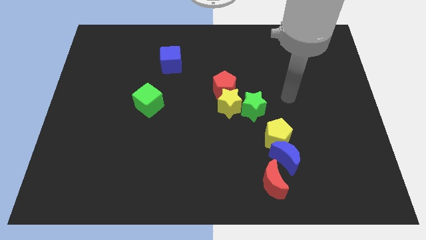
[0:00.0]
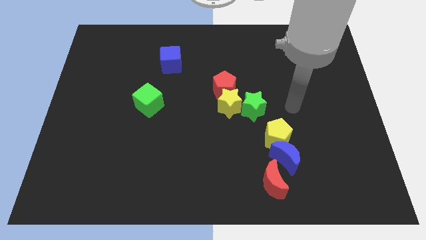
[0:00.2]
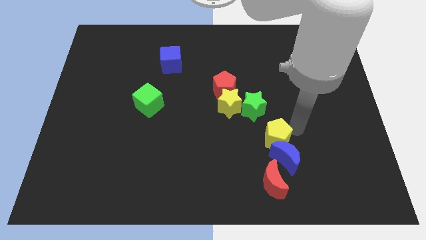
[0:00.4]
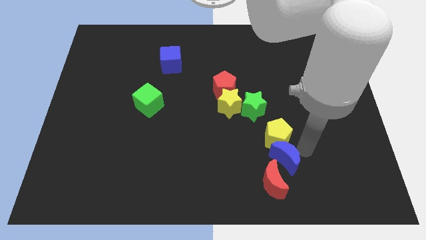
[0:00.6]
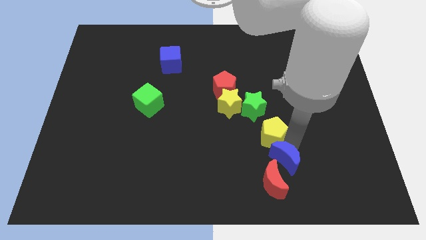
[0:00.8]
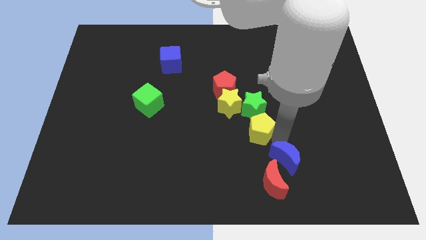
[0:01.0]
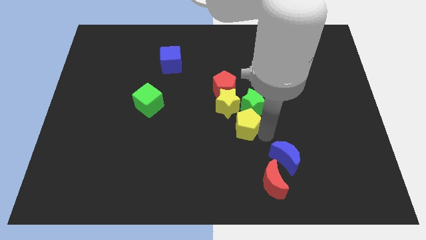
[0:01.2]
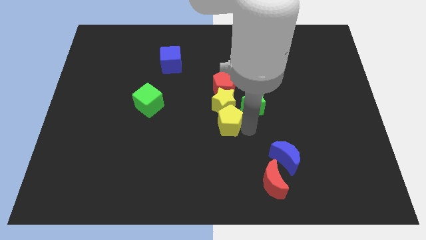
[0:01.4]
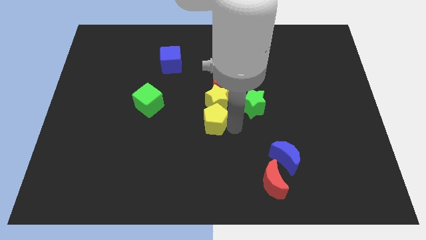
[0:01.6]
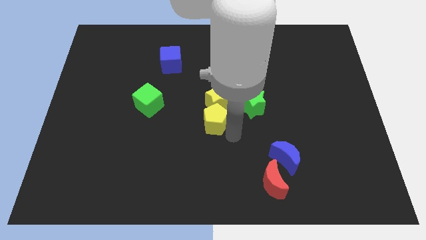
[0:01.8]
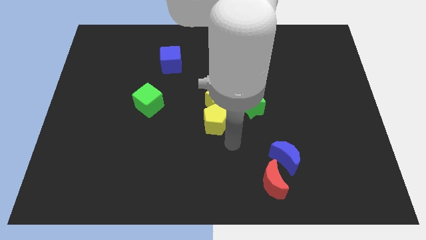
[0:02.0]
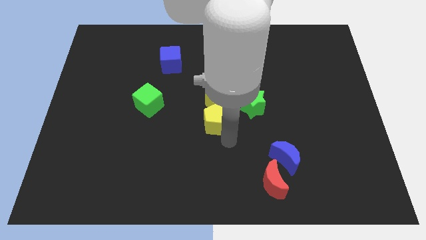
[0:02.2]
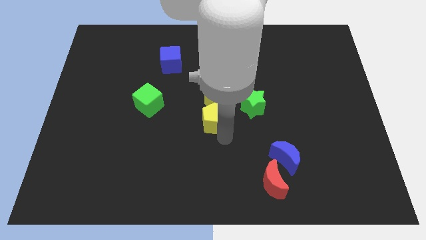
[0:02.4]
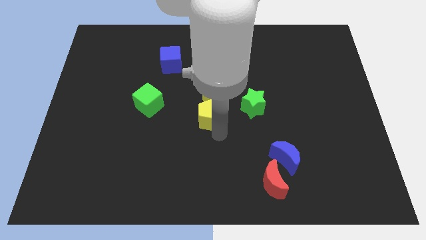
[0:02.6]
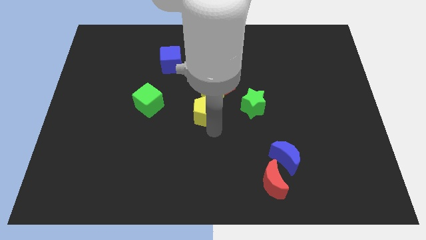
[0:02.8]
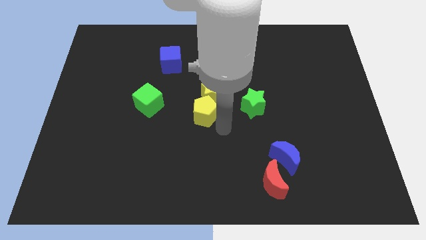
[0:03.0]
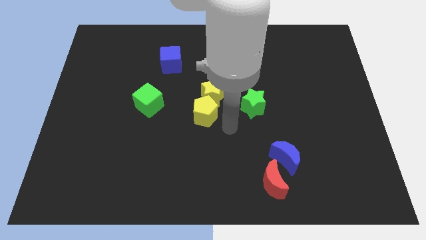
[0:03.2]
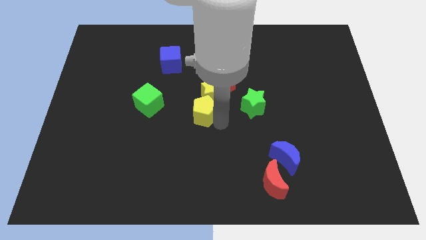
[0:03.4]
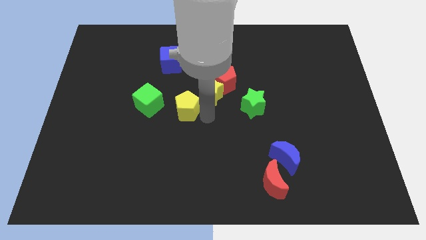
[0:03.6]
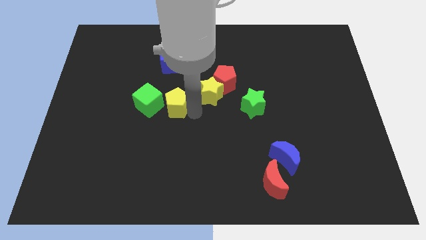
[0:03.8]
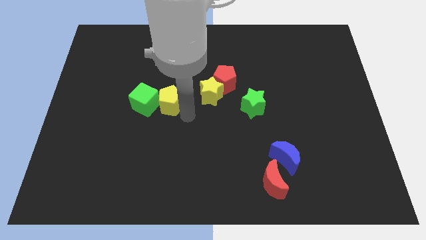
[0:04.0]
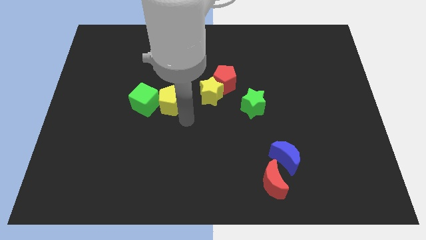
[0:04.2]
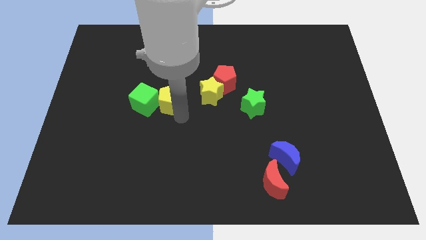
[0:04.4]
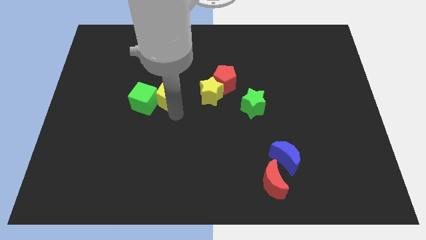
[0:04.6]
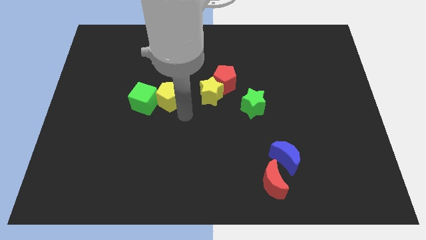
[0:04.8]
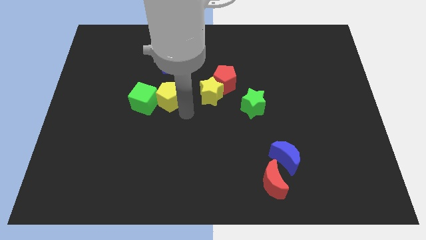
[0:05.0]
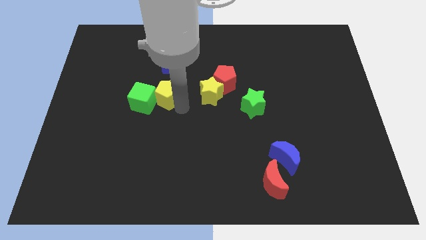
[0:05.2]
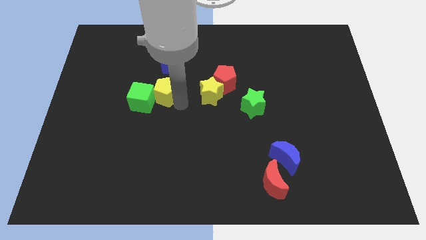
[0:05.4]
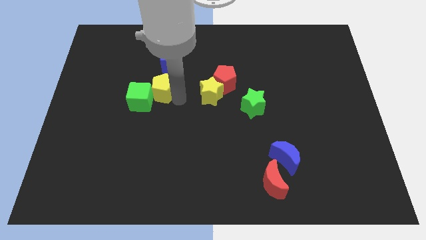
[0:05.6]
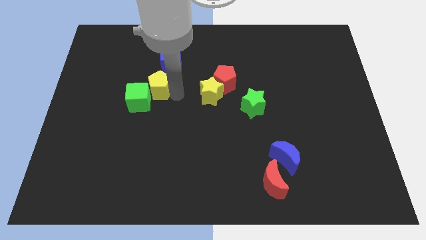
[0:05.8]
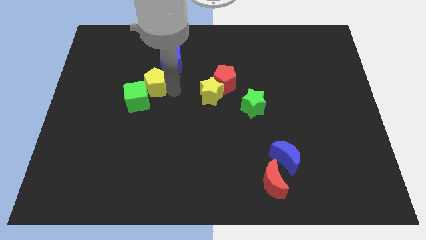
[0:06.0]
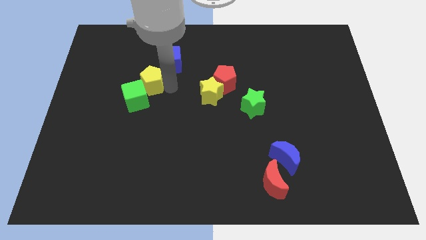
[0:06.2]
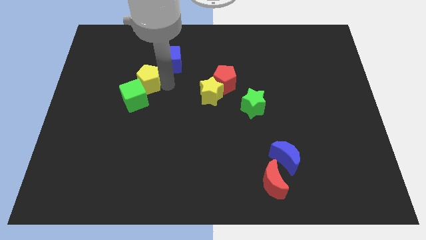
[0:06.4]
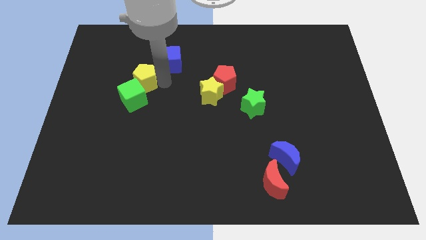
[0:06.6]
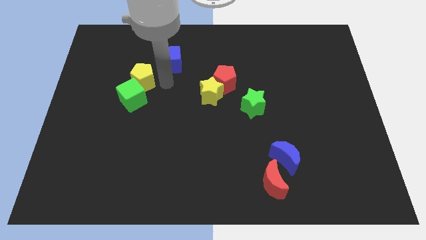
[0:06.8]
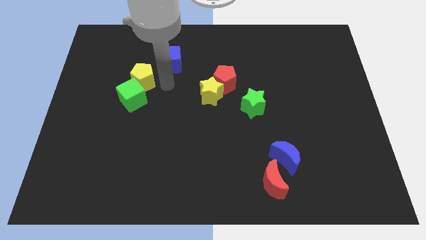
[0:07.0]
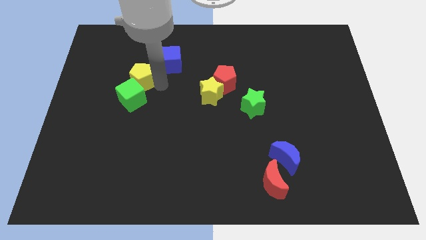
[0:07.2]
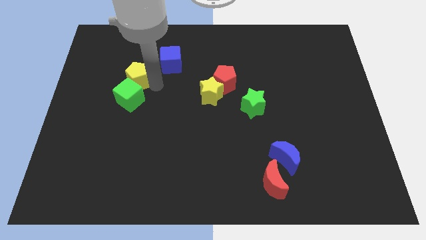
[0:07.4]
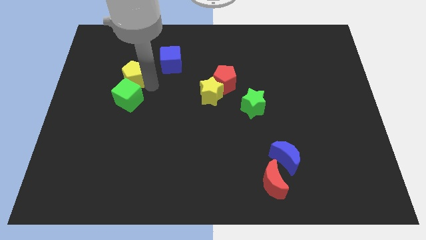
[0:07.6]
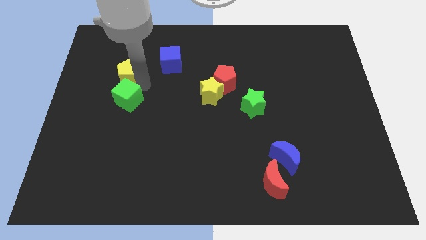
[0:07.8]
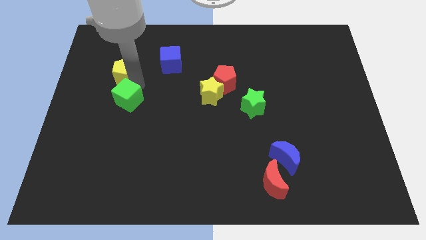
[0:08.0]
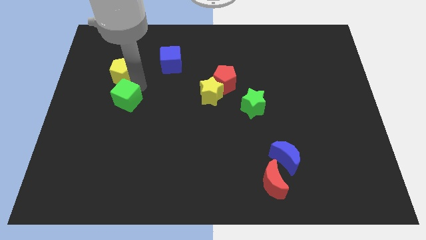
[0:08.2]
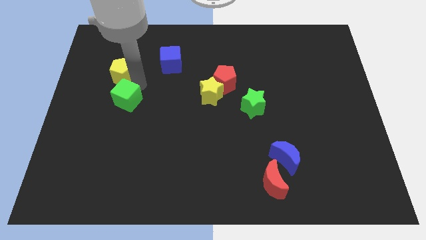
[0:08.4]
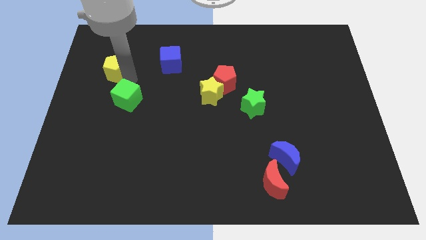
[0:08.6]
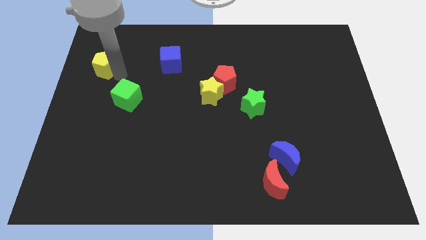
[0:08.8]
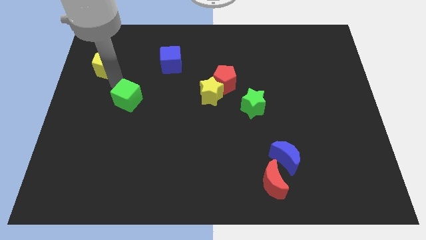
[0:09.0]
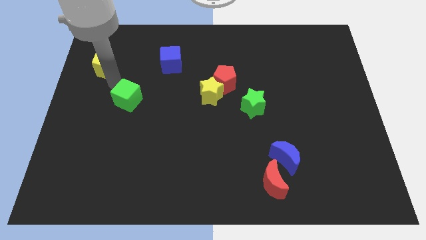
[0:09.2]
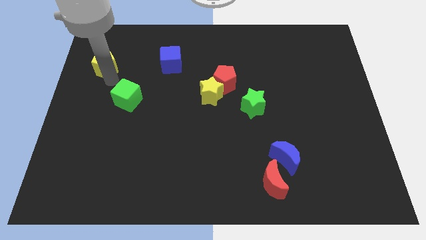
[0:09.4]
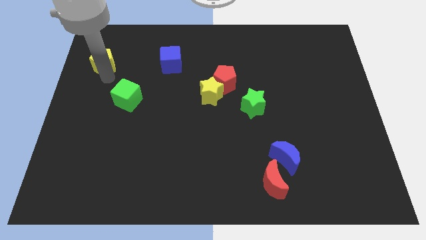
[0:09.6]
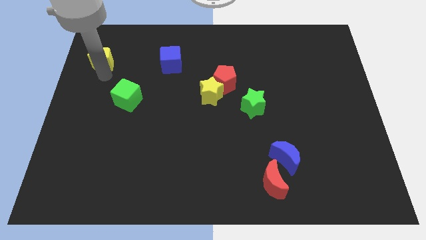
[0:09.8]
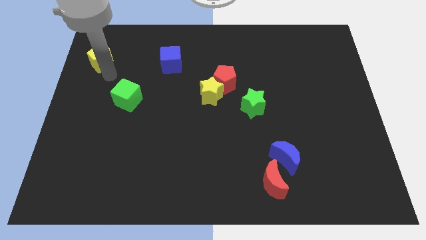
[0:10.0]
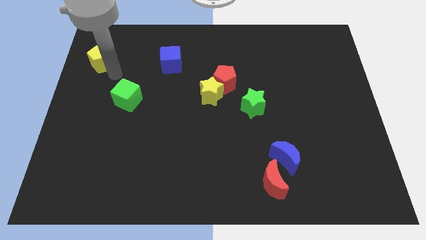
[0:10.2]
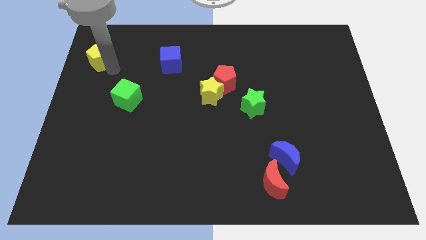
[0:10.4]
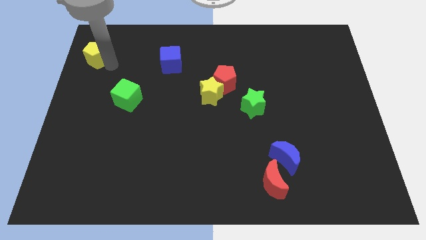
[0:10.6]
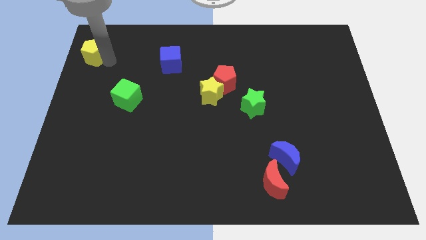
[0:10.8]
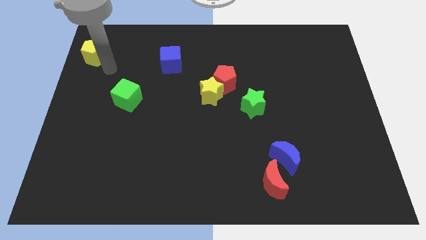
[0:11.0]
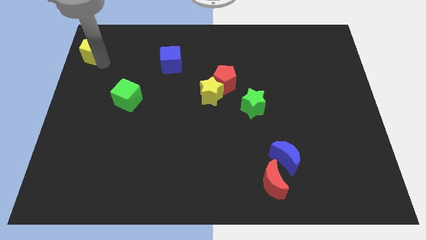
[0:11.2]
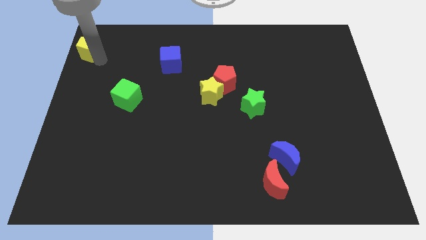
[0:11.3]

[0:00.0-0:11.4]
move the yellow pentagon to the top left
